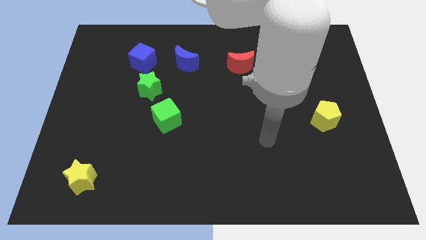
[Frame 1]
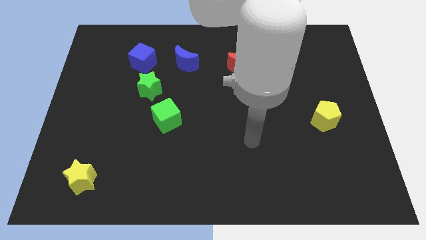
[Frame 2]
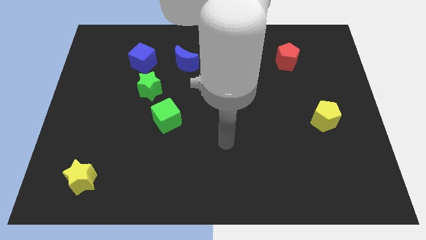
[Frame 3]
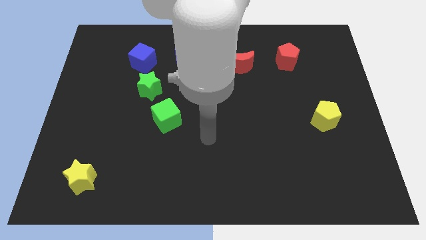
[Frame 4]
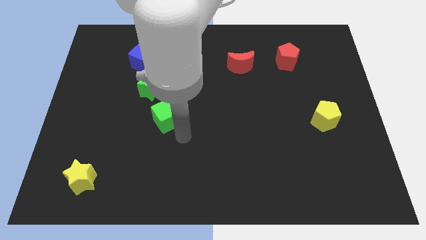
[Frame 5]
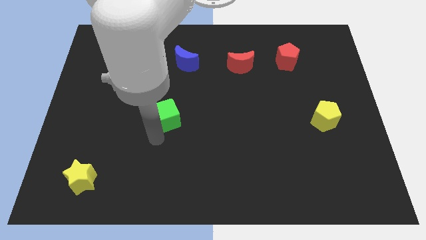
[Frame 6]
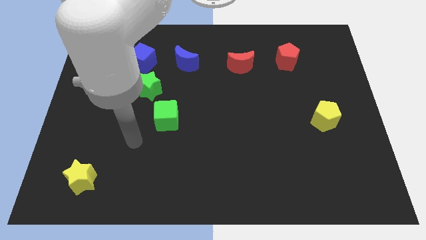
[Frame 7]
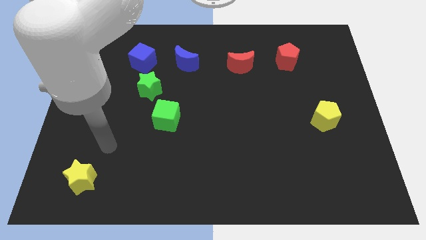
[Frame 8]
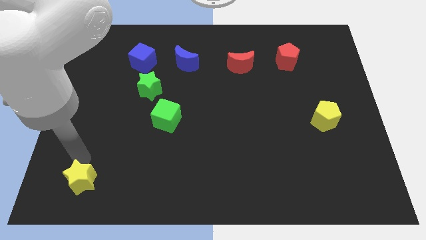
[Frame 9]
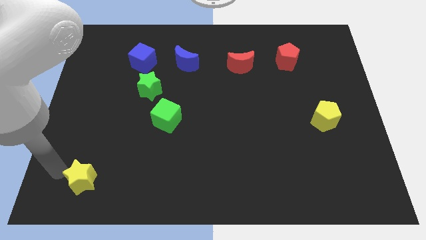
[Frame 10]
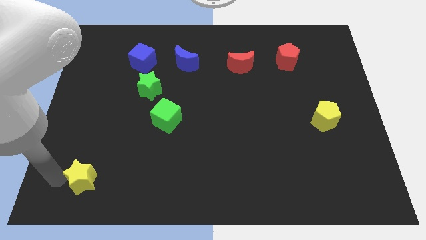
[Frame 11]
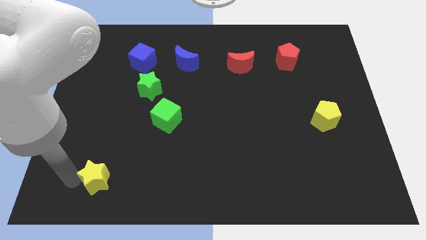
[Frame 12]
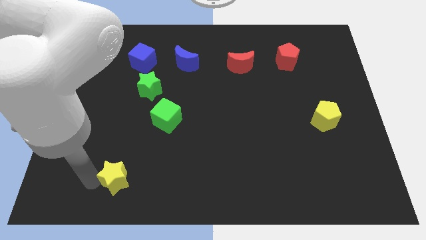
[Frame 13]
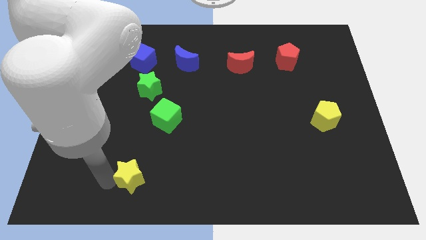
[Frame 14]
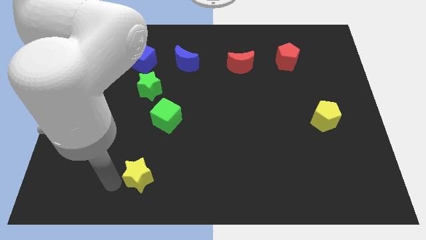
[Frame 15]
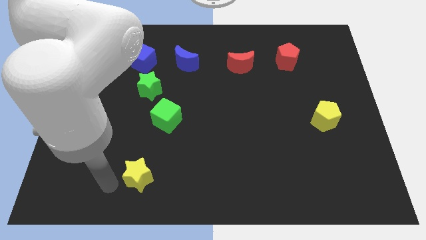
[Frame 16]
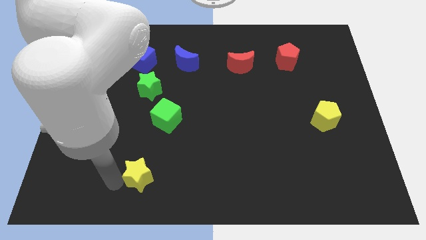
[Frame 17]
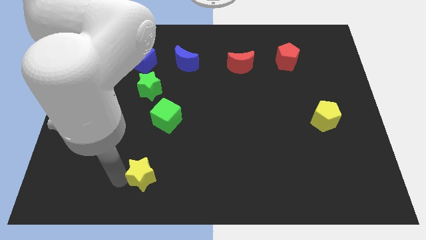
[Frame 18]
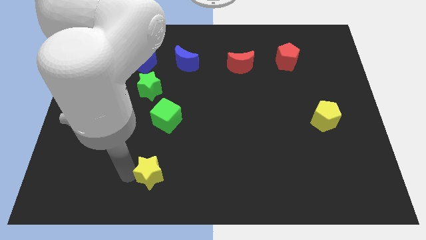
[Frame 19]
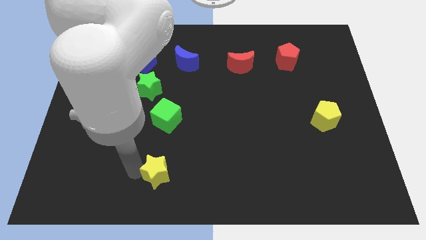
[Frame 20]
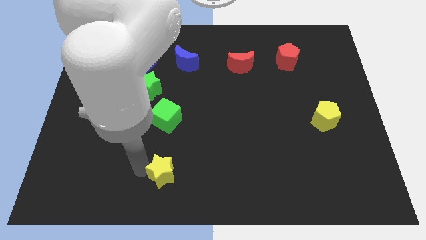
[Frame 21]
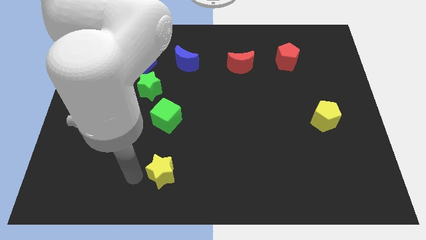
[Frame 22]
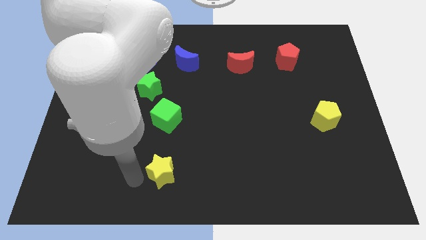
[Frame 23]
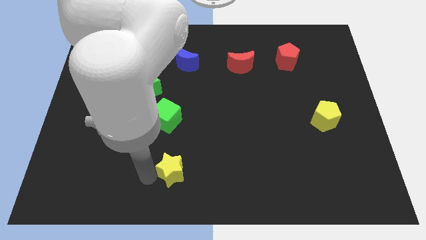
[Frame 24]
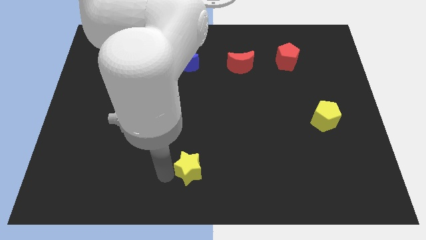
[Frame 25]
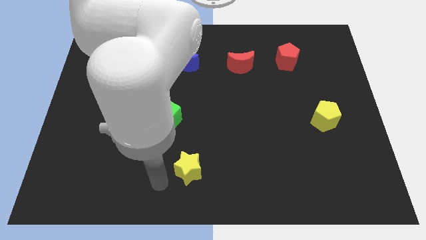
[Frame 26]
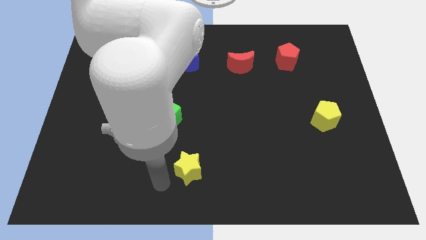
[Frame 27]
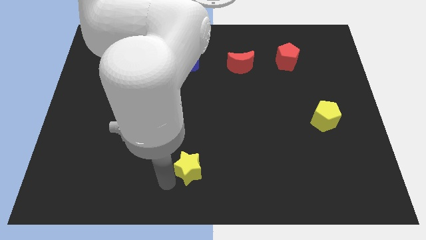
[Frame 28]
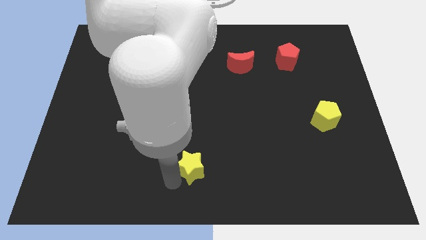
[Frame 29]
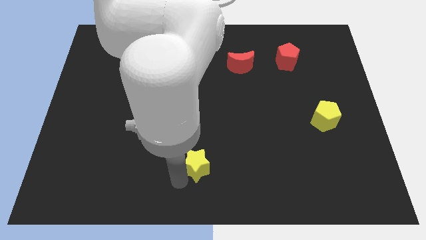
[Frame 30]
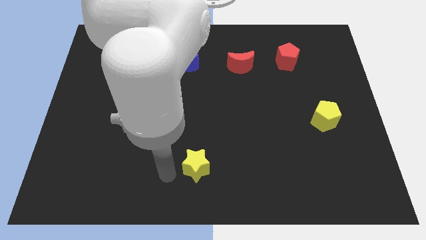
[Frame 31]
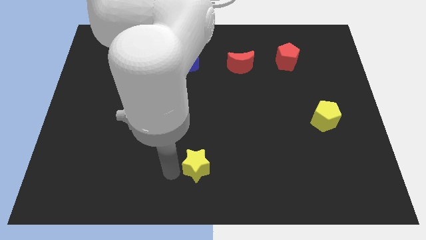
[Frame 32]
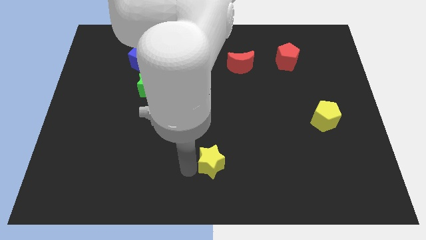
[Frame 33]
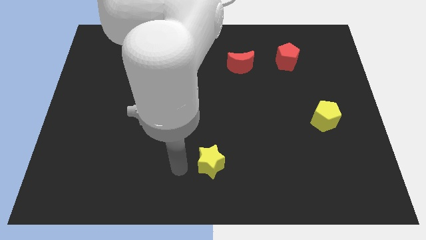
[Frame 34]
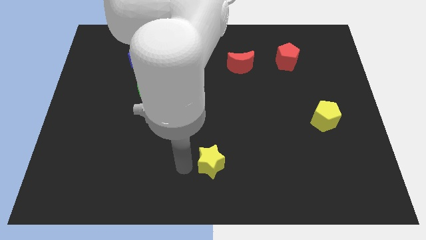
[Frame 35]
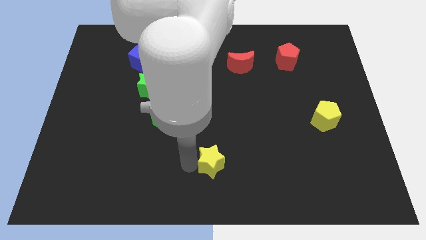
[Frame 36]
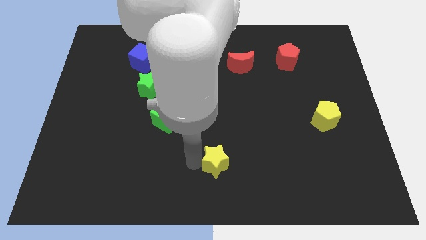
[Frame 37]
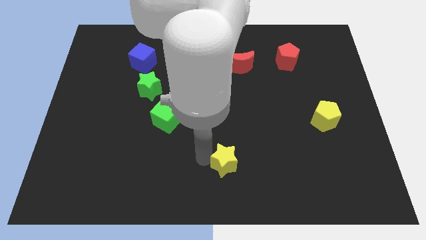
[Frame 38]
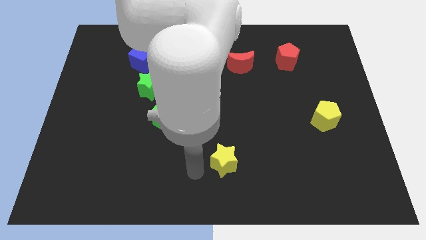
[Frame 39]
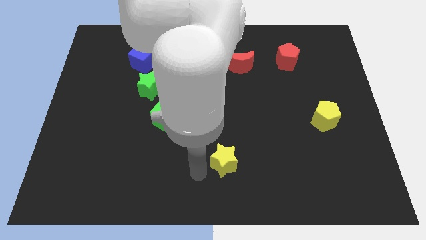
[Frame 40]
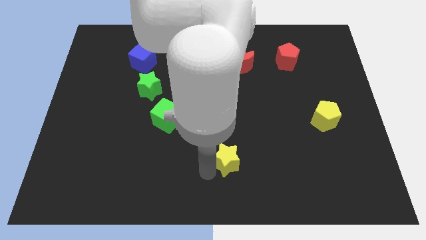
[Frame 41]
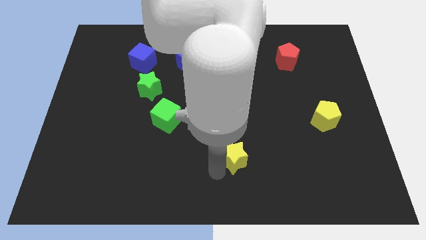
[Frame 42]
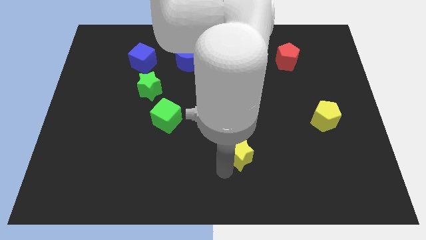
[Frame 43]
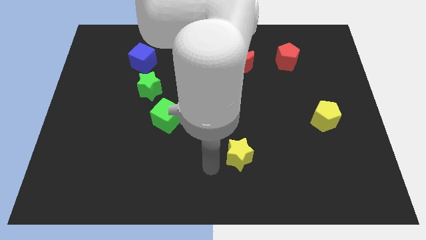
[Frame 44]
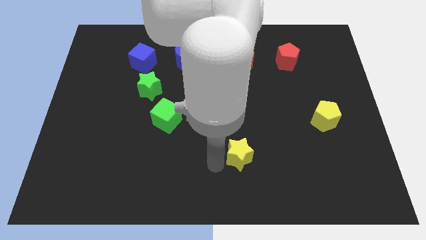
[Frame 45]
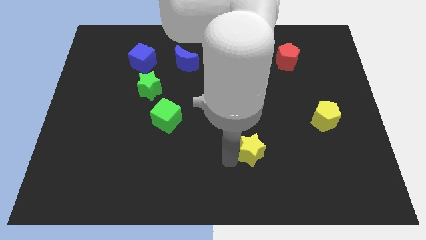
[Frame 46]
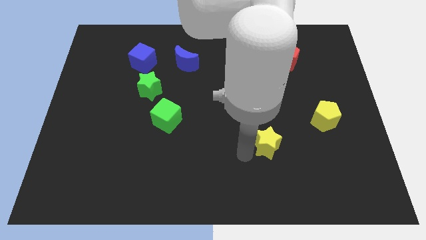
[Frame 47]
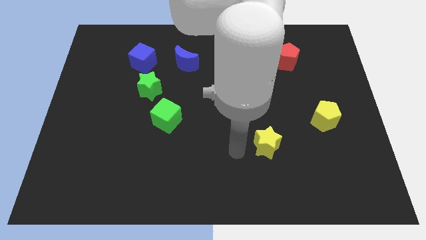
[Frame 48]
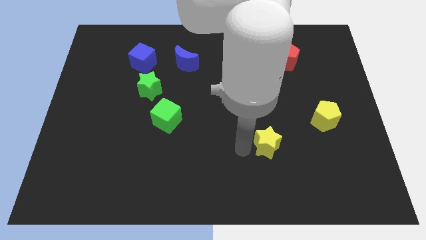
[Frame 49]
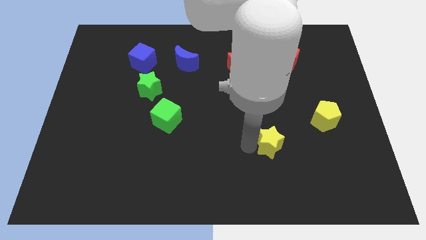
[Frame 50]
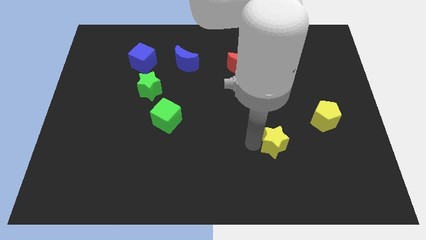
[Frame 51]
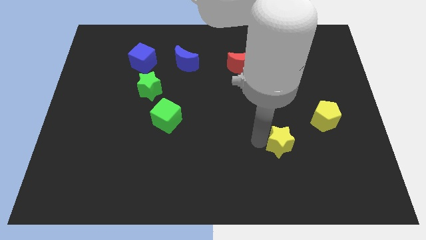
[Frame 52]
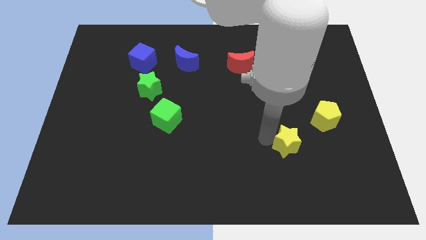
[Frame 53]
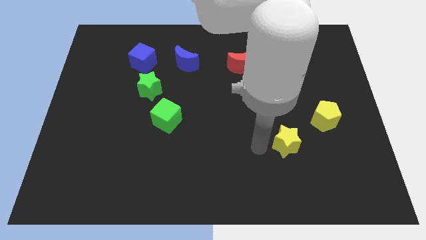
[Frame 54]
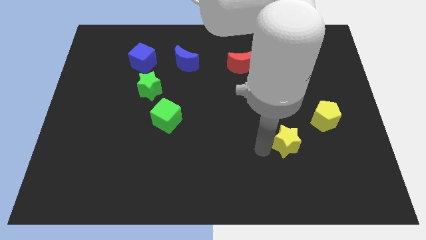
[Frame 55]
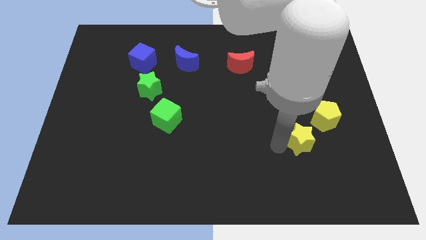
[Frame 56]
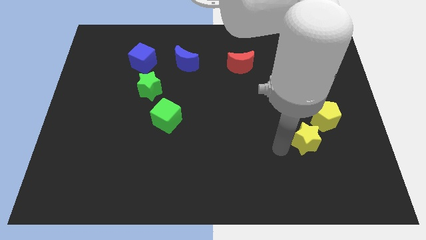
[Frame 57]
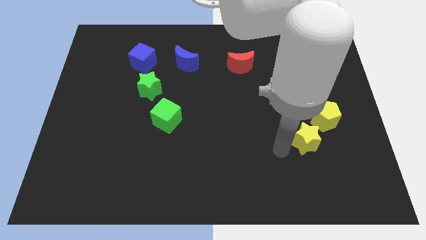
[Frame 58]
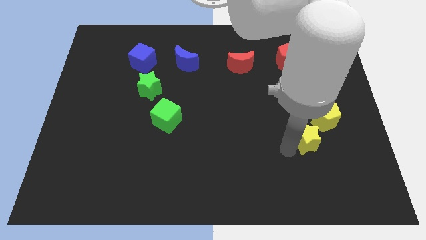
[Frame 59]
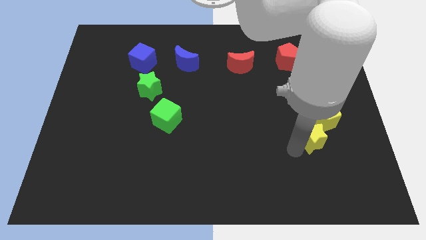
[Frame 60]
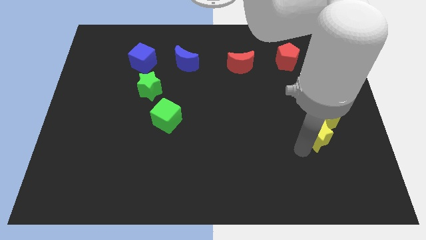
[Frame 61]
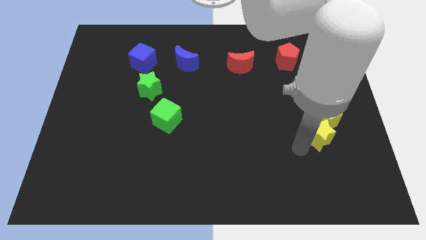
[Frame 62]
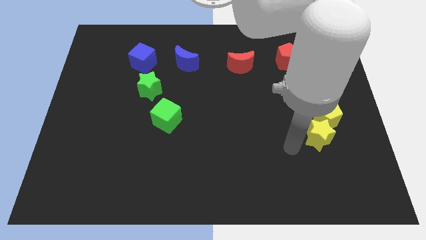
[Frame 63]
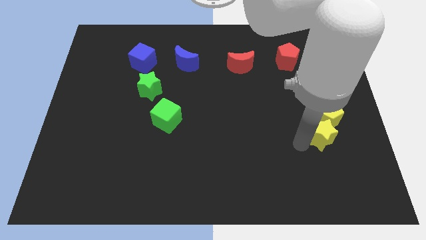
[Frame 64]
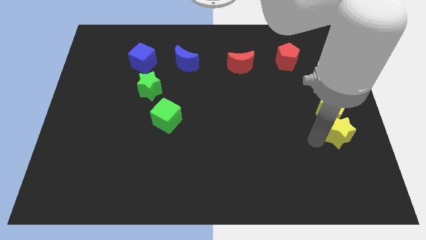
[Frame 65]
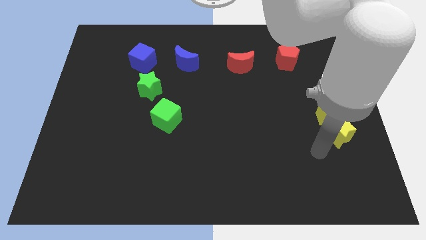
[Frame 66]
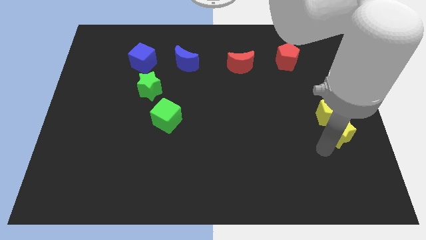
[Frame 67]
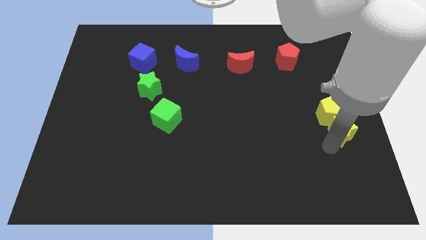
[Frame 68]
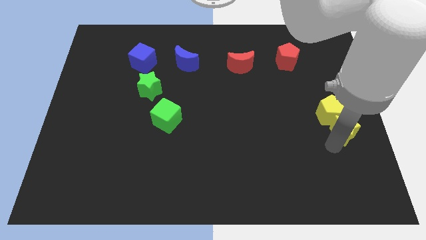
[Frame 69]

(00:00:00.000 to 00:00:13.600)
move the yellow star to the right side of the board
